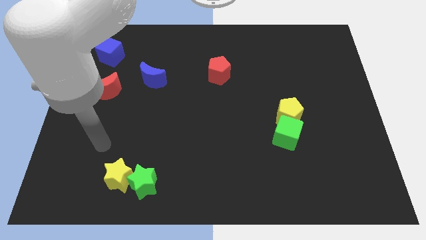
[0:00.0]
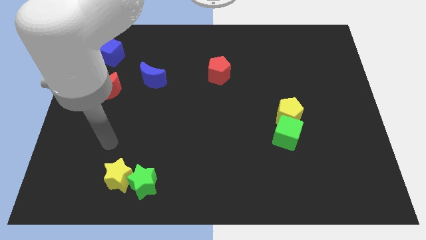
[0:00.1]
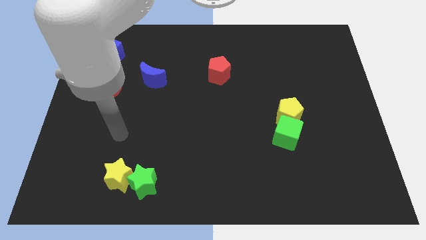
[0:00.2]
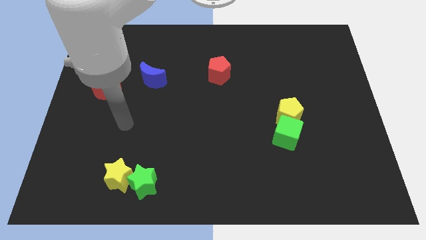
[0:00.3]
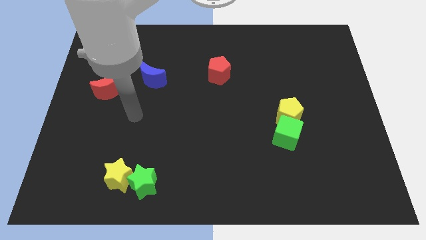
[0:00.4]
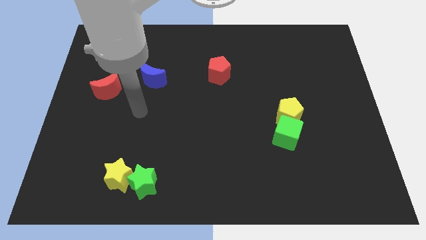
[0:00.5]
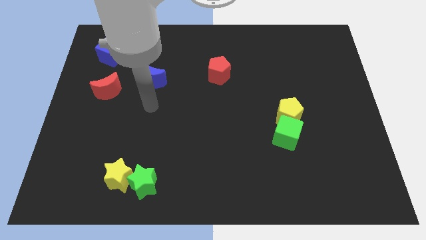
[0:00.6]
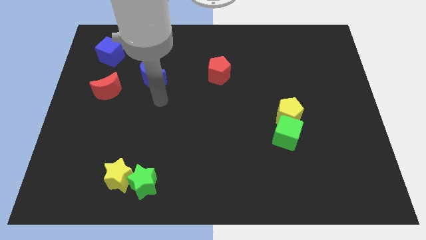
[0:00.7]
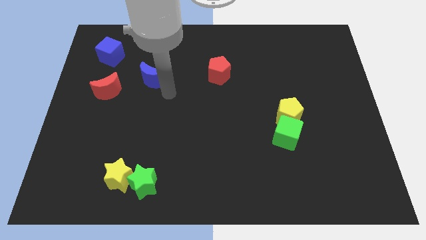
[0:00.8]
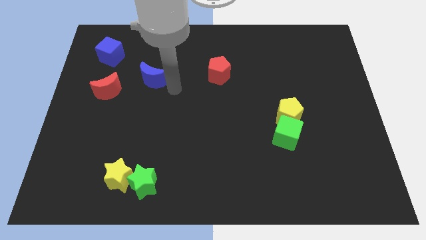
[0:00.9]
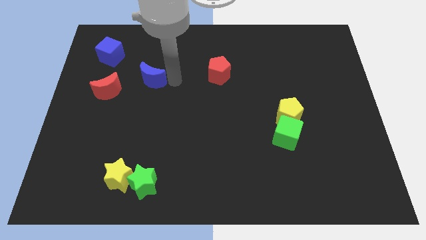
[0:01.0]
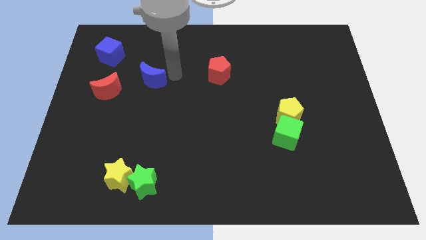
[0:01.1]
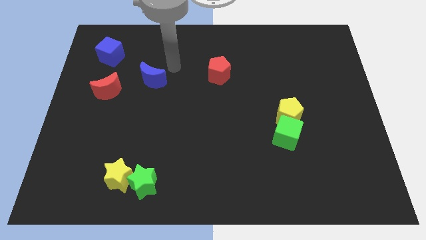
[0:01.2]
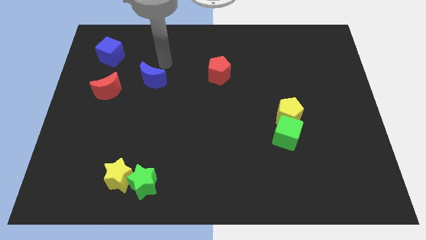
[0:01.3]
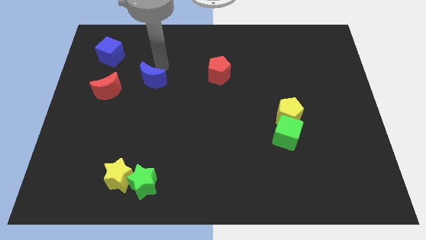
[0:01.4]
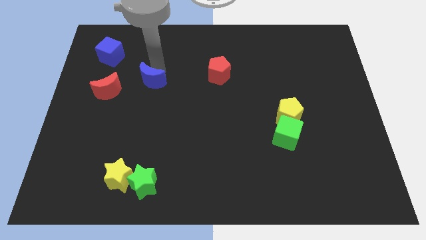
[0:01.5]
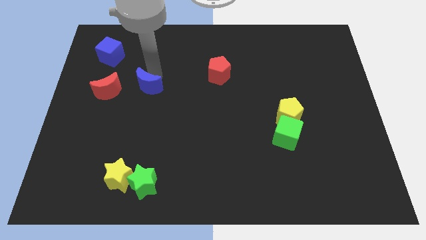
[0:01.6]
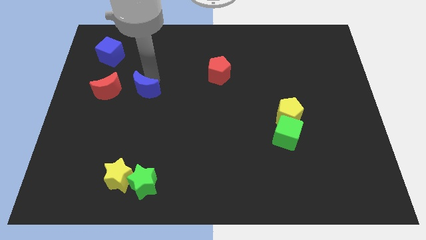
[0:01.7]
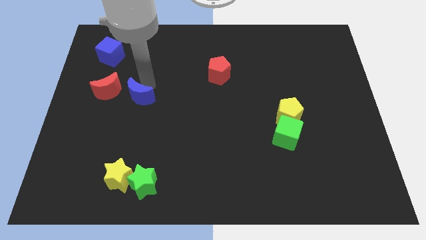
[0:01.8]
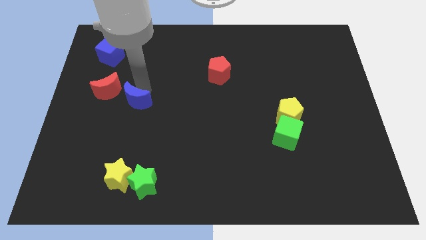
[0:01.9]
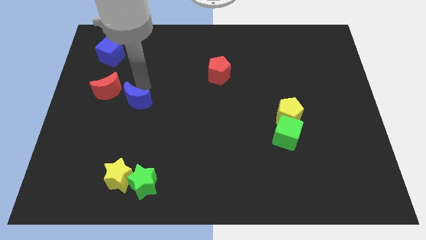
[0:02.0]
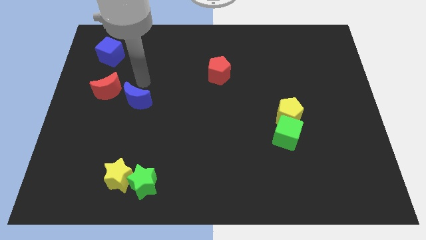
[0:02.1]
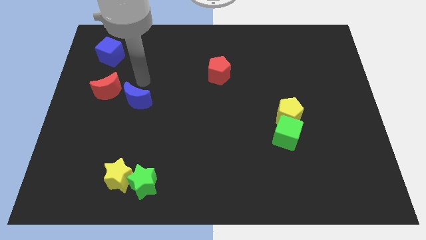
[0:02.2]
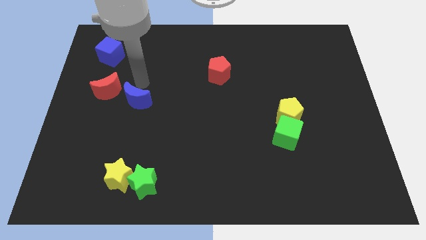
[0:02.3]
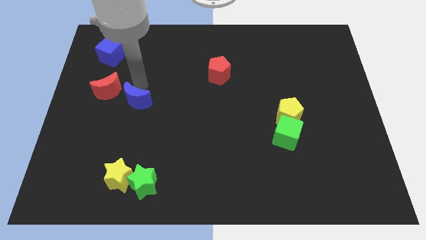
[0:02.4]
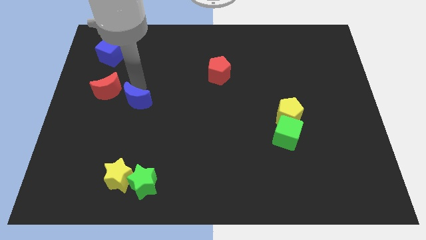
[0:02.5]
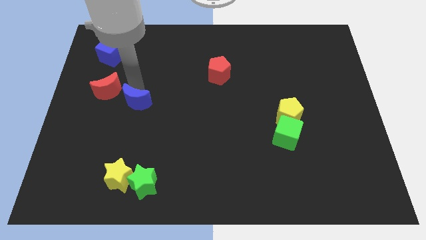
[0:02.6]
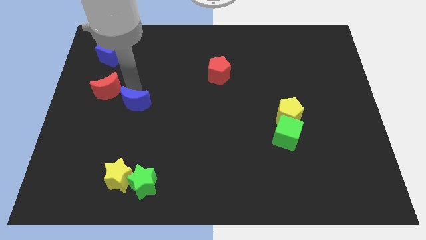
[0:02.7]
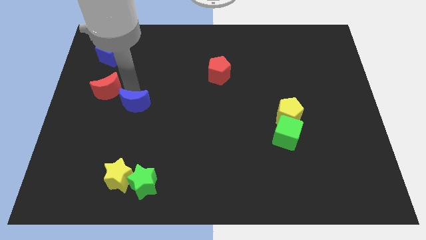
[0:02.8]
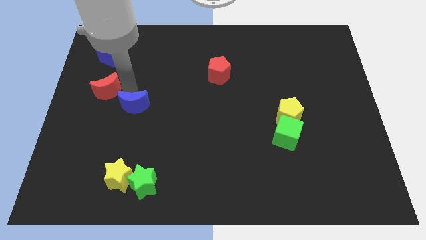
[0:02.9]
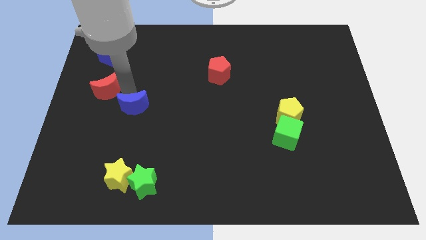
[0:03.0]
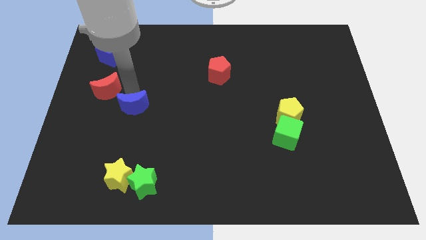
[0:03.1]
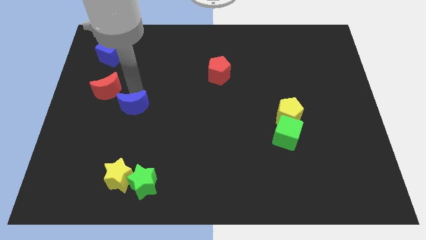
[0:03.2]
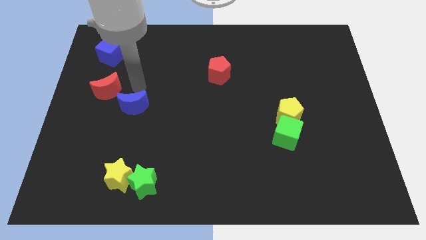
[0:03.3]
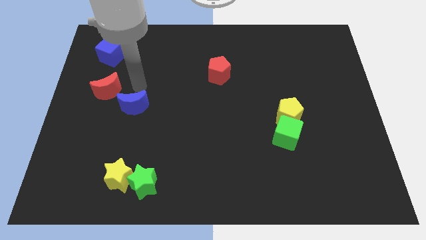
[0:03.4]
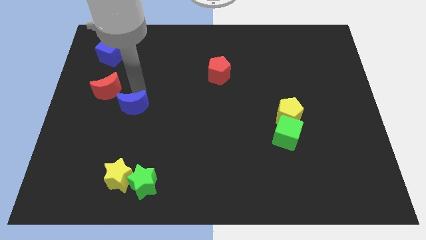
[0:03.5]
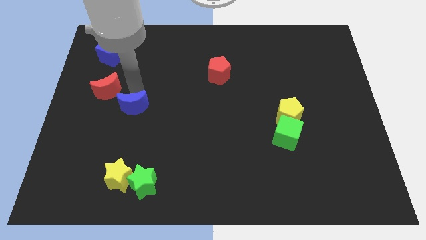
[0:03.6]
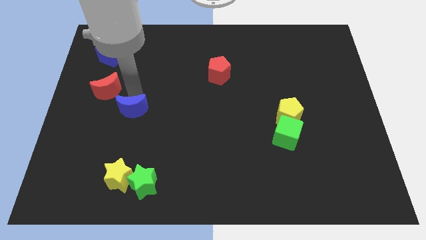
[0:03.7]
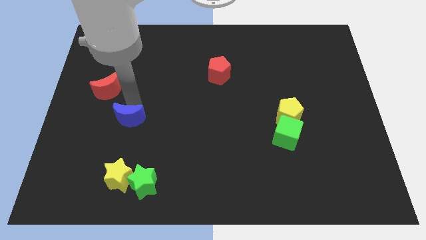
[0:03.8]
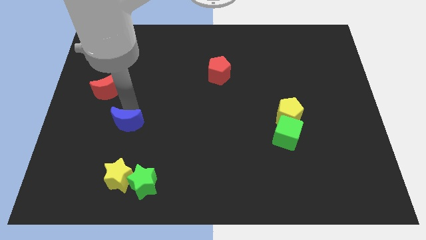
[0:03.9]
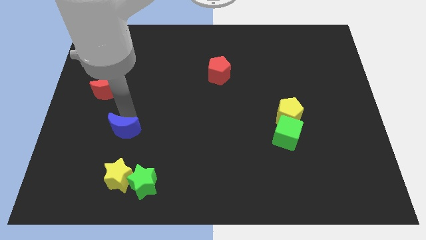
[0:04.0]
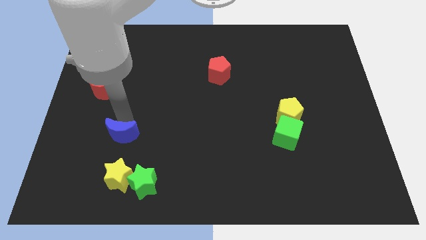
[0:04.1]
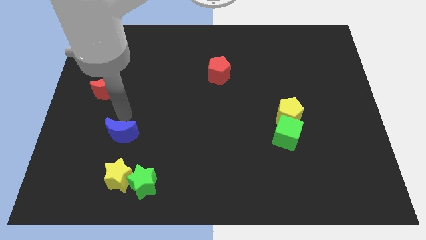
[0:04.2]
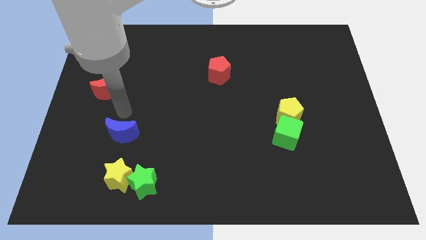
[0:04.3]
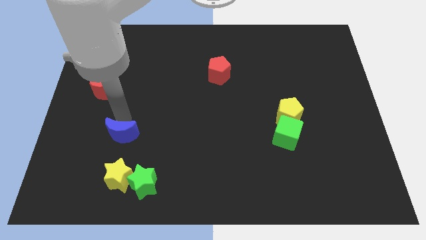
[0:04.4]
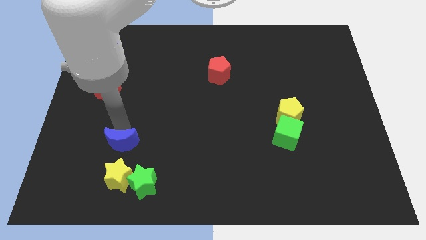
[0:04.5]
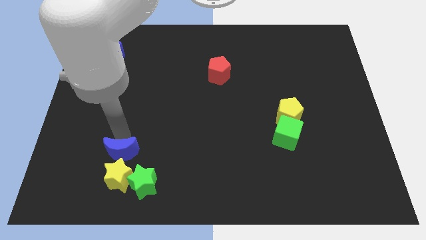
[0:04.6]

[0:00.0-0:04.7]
push the blue moon close to the yellow star

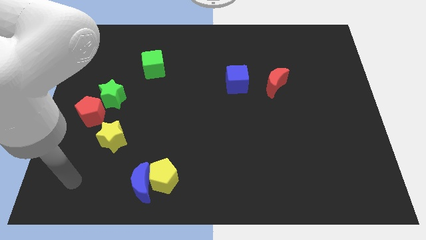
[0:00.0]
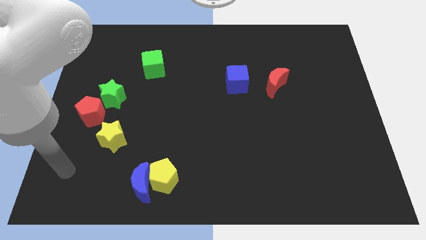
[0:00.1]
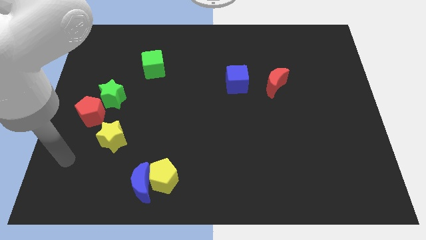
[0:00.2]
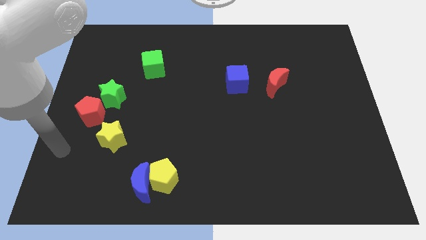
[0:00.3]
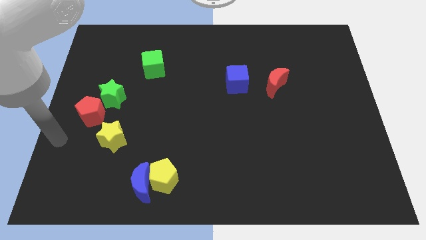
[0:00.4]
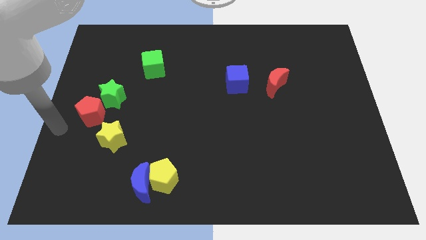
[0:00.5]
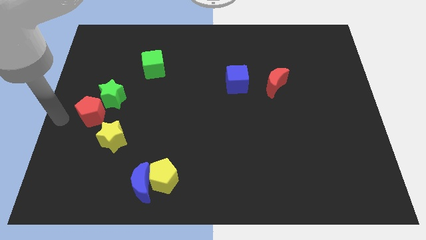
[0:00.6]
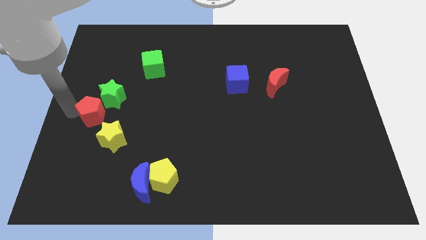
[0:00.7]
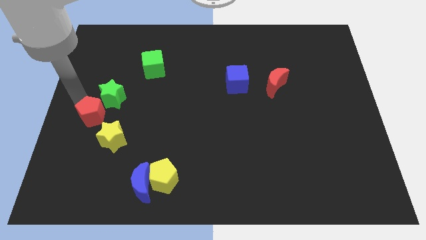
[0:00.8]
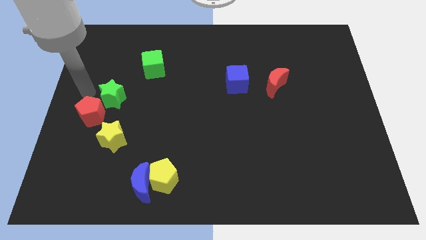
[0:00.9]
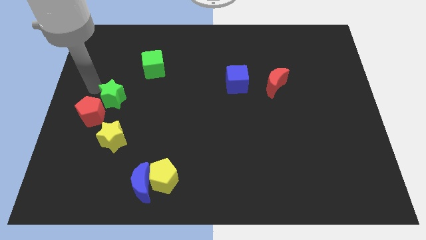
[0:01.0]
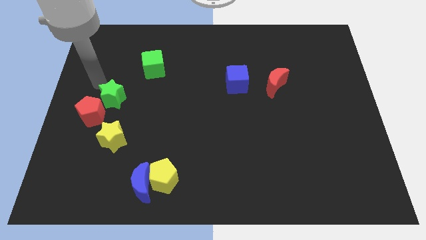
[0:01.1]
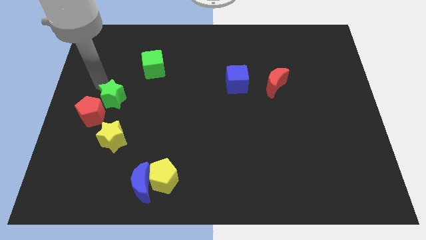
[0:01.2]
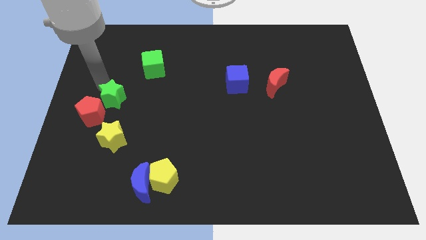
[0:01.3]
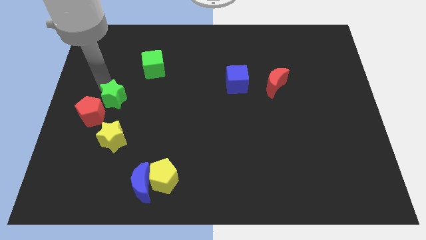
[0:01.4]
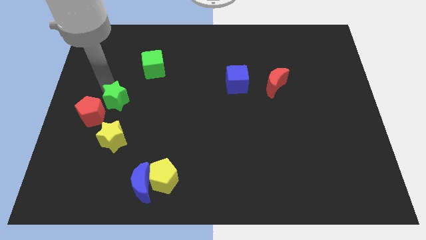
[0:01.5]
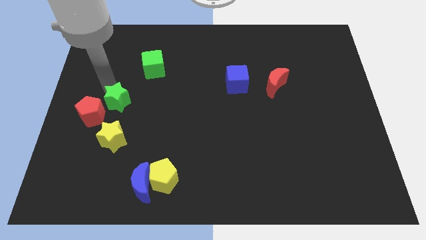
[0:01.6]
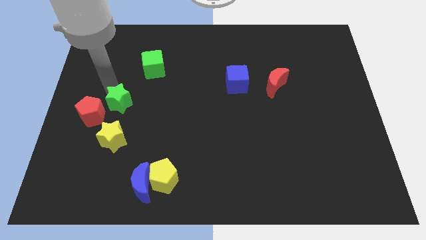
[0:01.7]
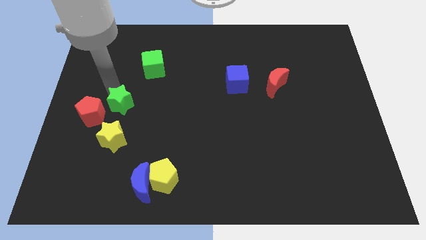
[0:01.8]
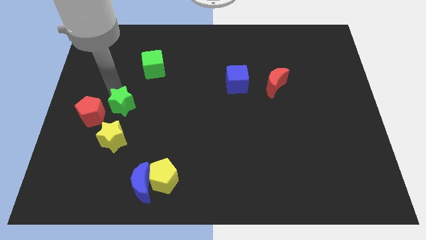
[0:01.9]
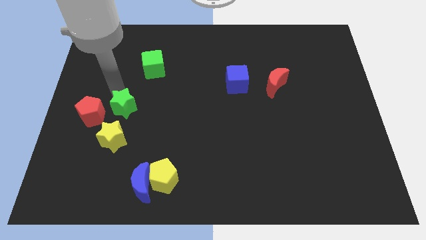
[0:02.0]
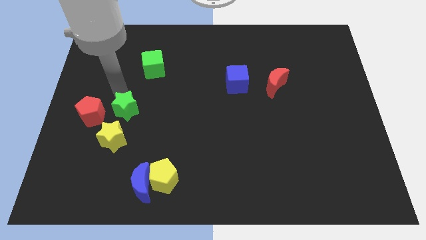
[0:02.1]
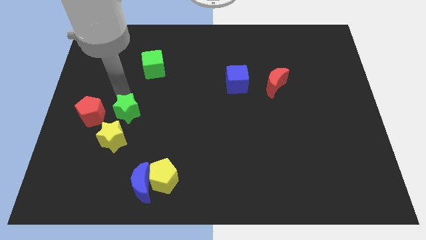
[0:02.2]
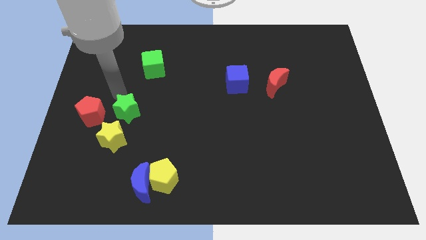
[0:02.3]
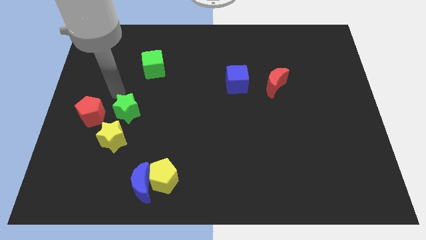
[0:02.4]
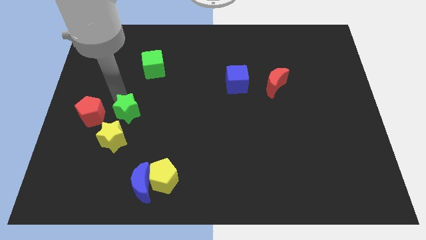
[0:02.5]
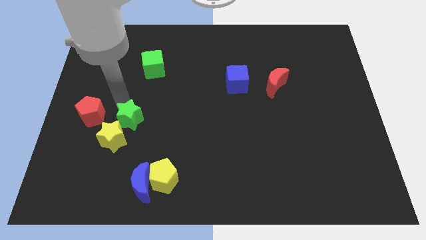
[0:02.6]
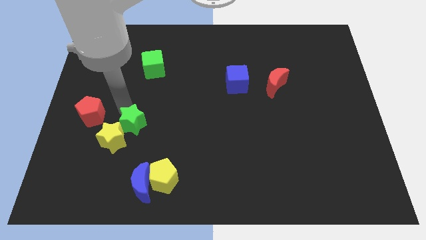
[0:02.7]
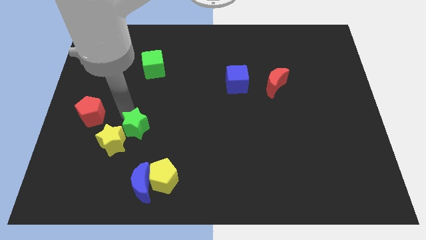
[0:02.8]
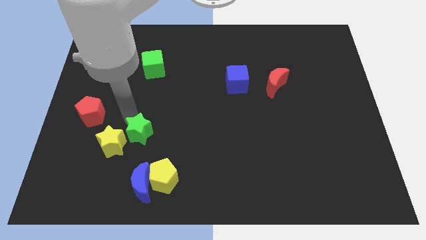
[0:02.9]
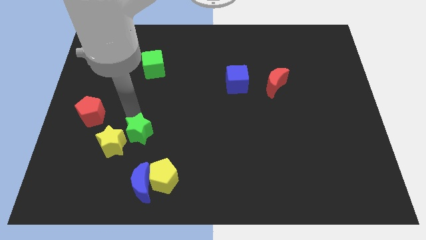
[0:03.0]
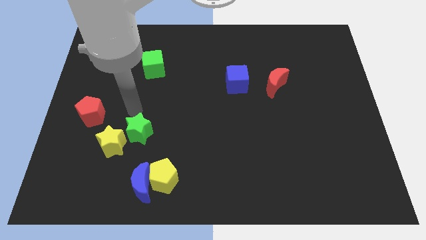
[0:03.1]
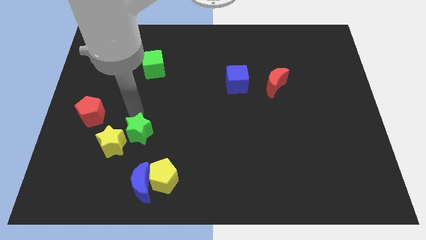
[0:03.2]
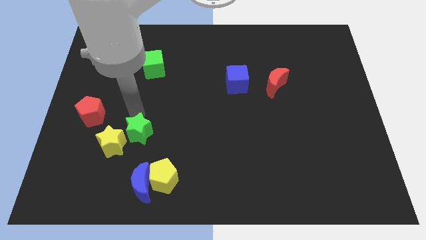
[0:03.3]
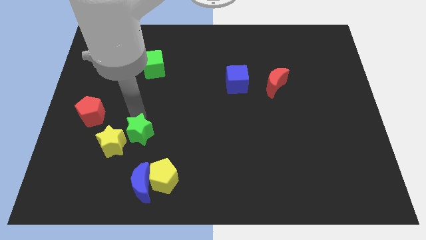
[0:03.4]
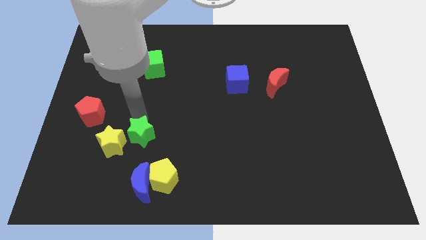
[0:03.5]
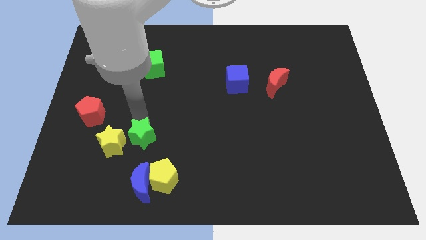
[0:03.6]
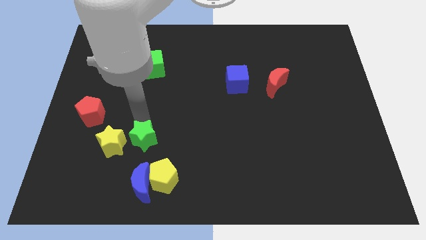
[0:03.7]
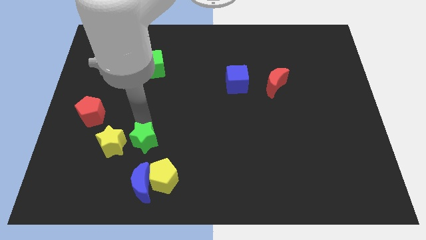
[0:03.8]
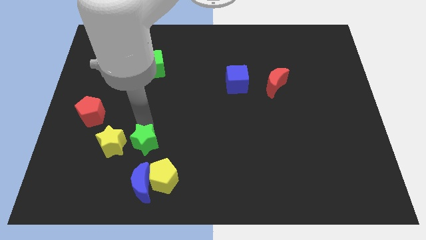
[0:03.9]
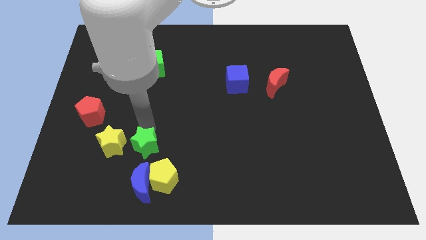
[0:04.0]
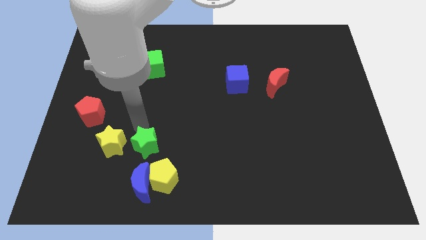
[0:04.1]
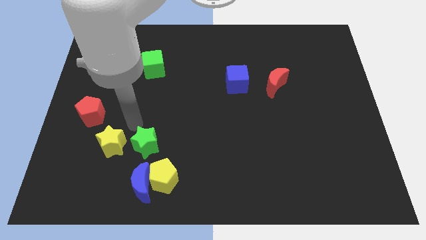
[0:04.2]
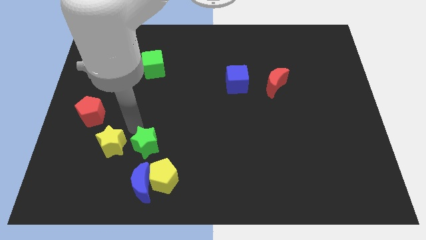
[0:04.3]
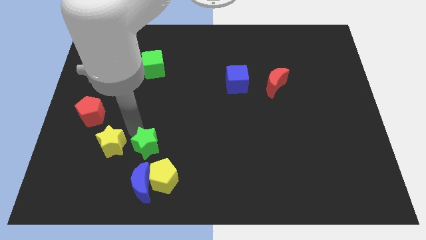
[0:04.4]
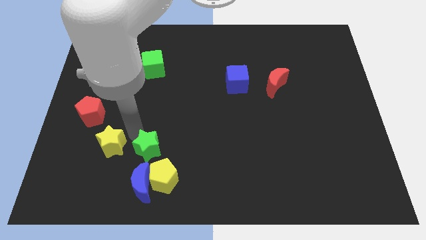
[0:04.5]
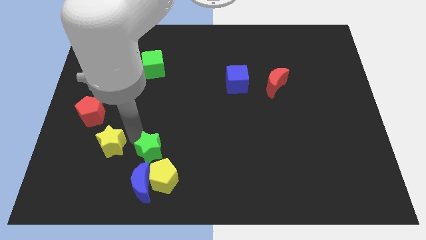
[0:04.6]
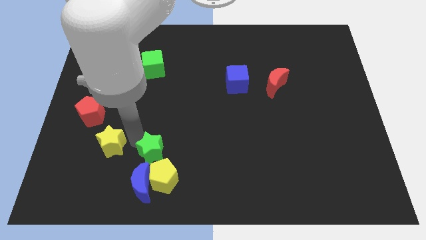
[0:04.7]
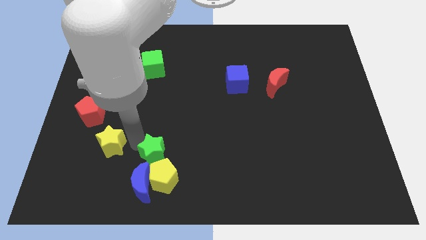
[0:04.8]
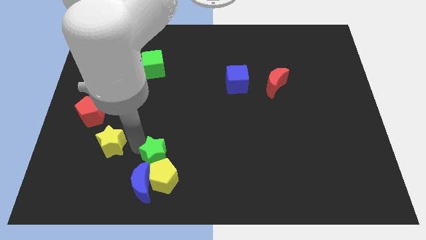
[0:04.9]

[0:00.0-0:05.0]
move the green star towards the yellow pentagon
